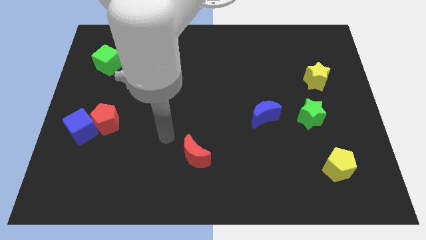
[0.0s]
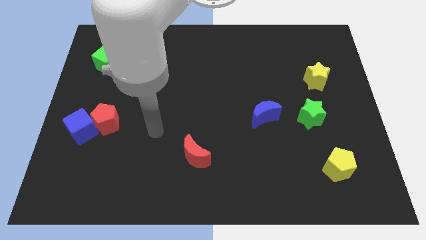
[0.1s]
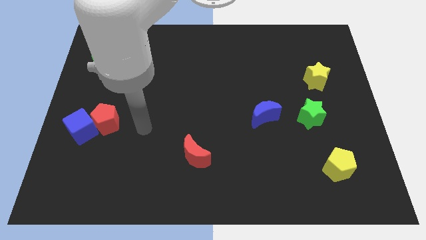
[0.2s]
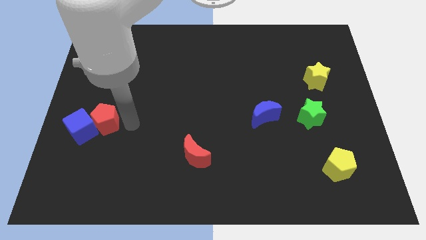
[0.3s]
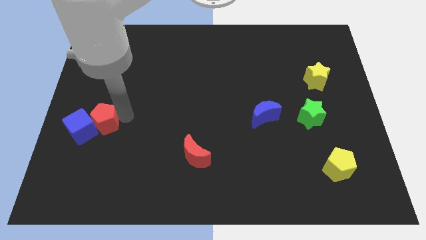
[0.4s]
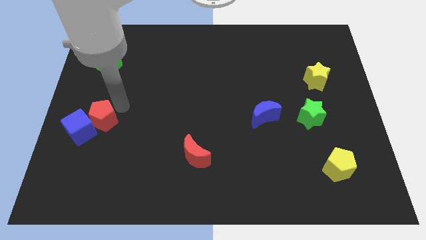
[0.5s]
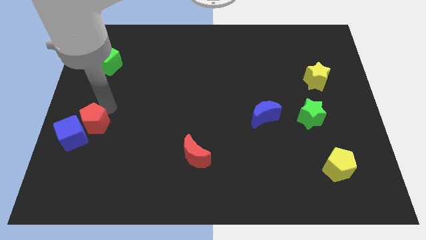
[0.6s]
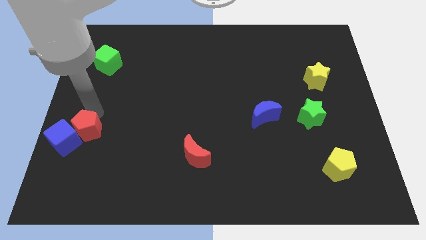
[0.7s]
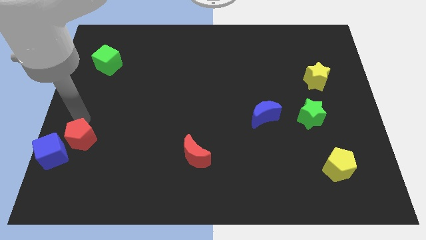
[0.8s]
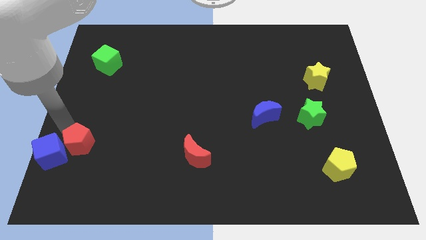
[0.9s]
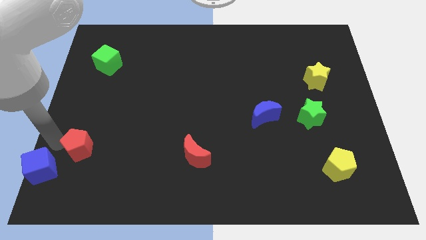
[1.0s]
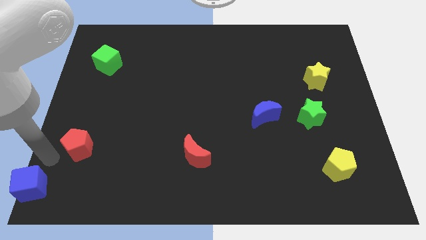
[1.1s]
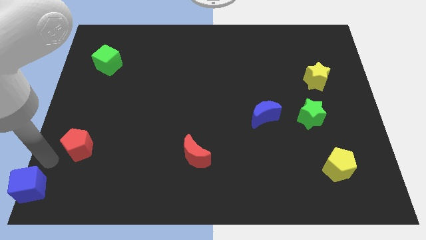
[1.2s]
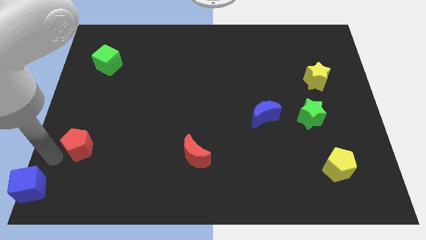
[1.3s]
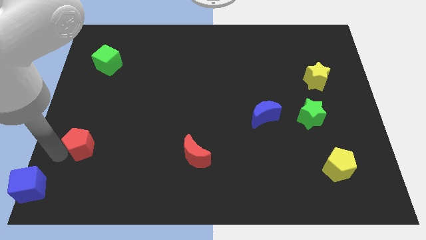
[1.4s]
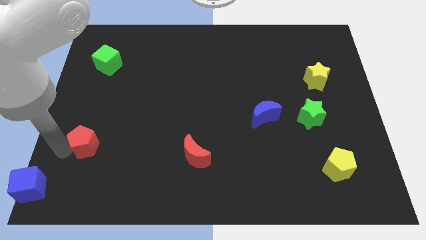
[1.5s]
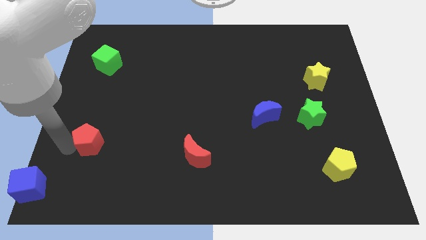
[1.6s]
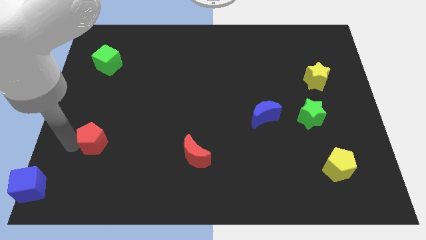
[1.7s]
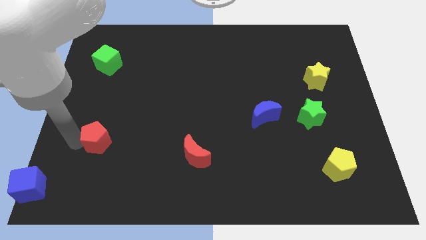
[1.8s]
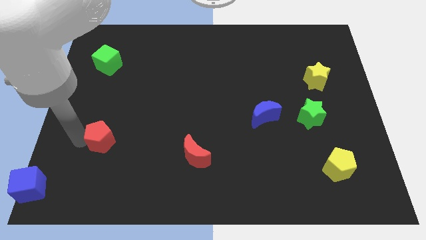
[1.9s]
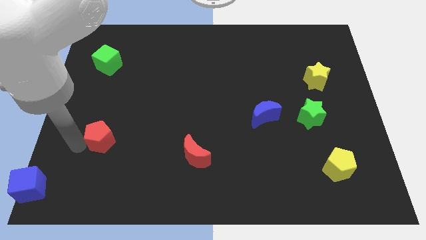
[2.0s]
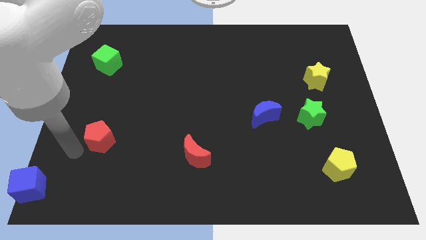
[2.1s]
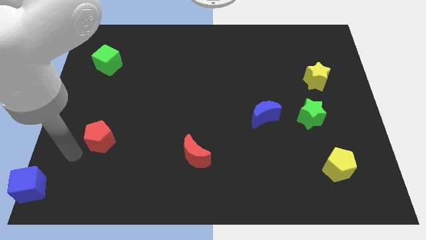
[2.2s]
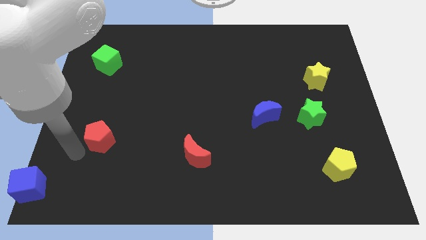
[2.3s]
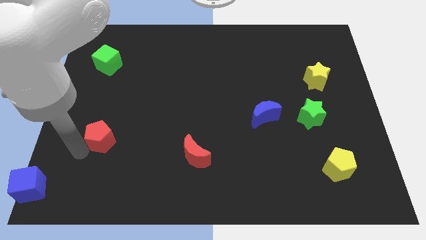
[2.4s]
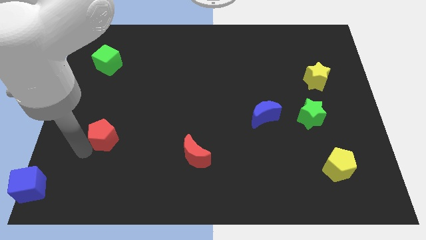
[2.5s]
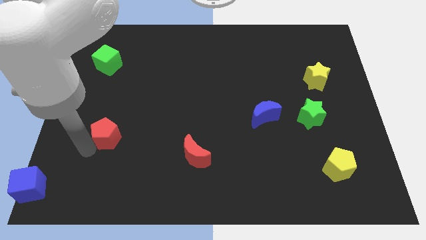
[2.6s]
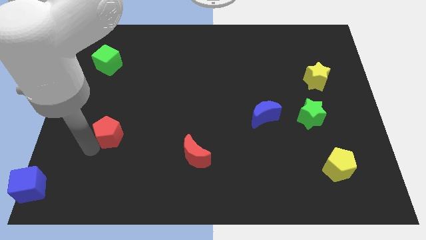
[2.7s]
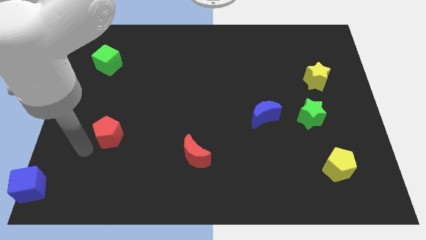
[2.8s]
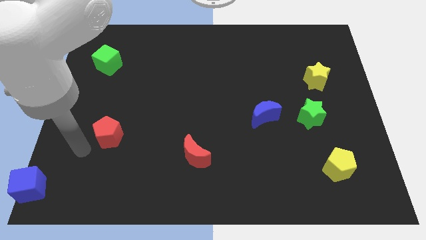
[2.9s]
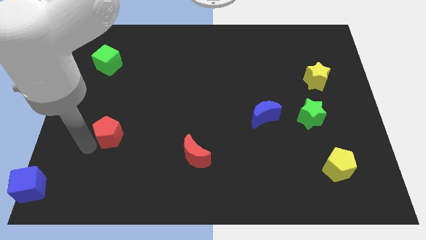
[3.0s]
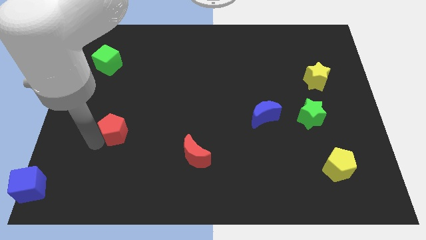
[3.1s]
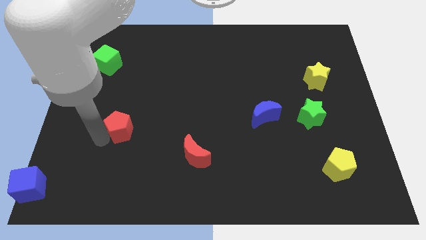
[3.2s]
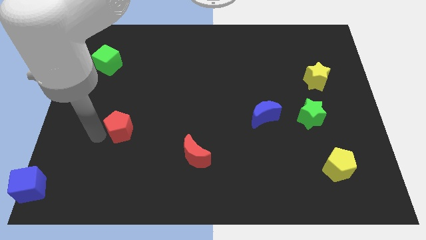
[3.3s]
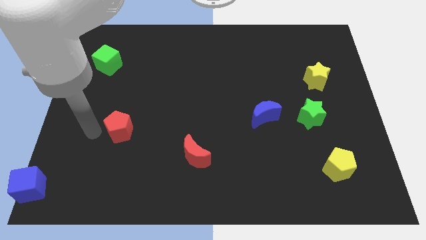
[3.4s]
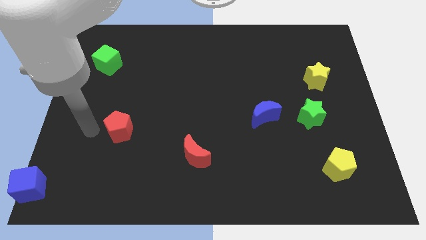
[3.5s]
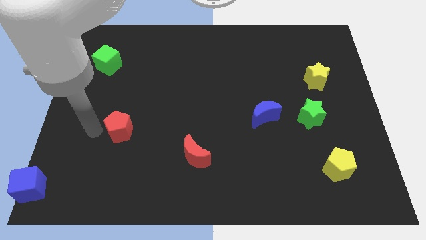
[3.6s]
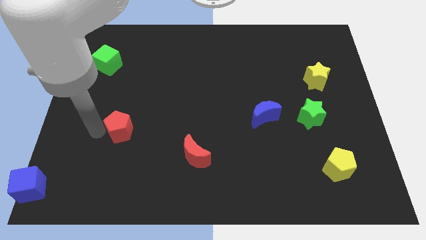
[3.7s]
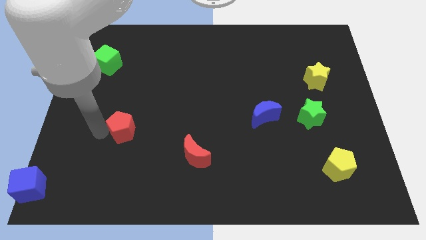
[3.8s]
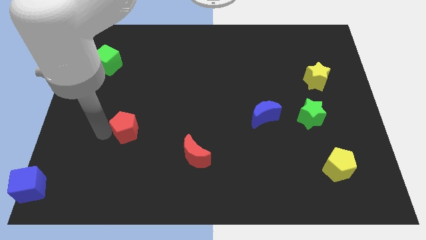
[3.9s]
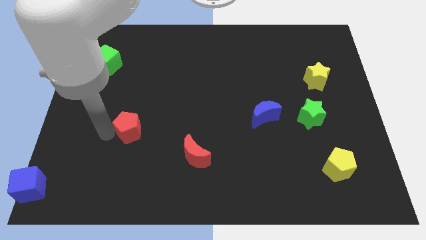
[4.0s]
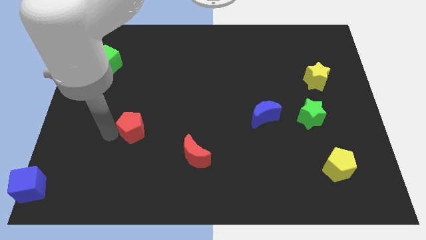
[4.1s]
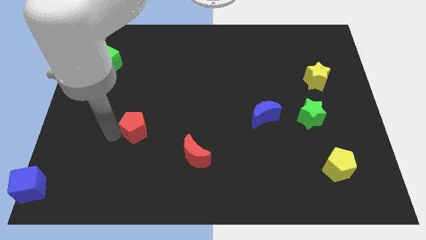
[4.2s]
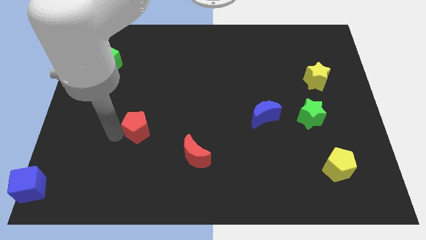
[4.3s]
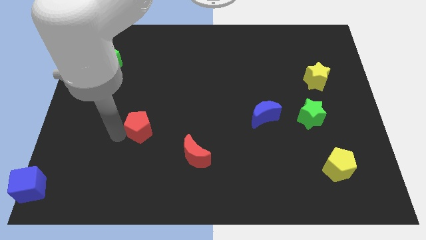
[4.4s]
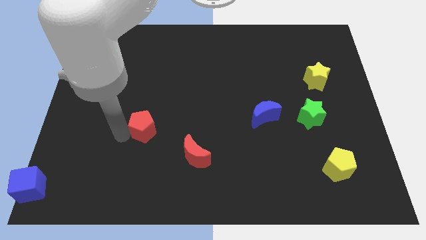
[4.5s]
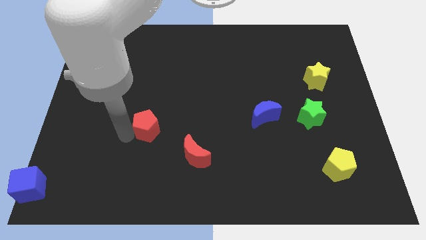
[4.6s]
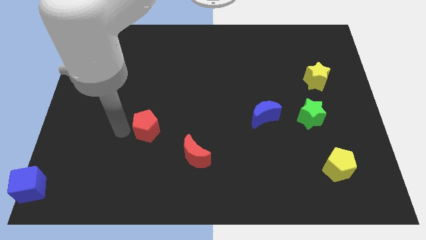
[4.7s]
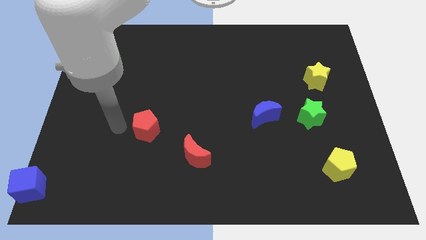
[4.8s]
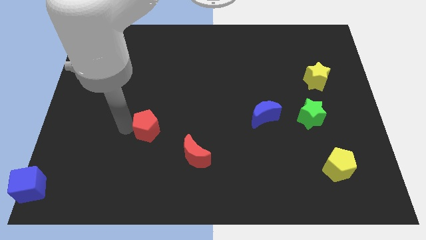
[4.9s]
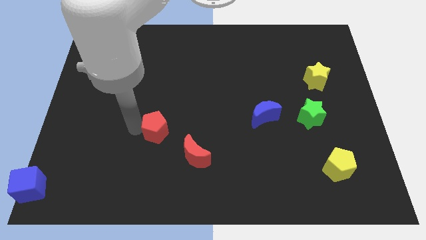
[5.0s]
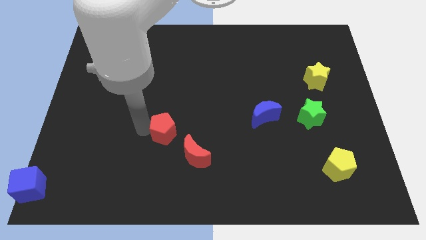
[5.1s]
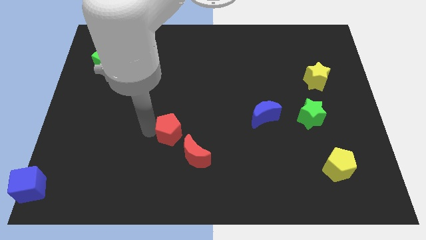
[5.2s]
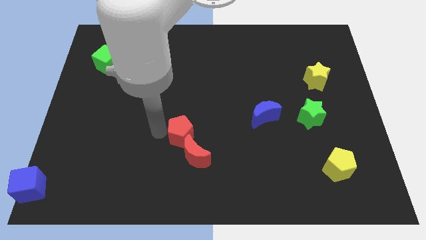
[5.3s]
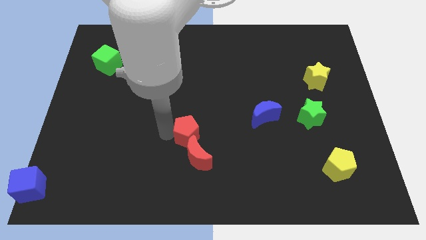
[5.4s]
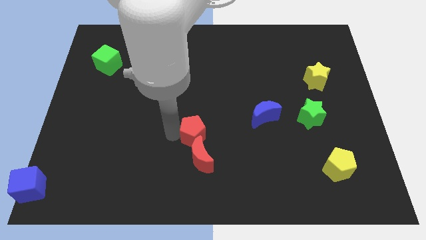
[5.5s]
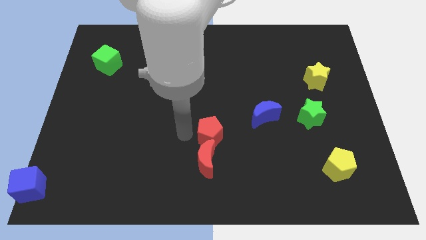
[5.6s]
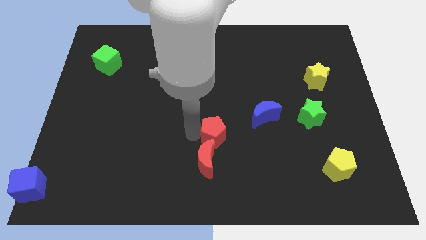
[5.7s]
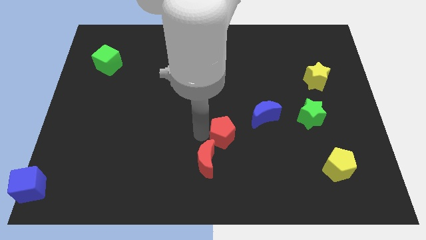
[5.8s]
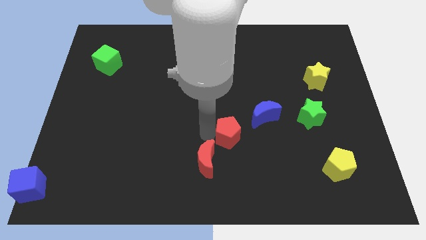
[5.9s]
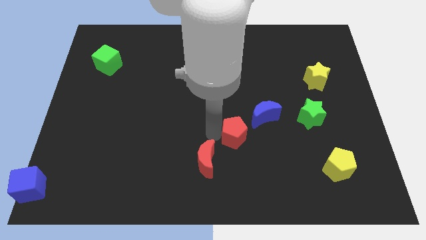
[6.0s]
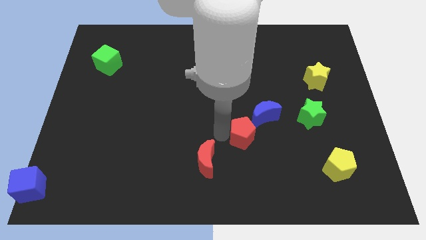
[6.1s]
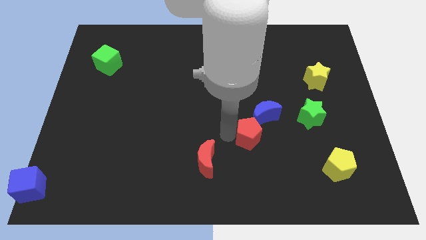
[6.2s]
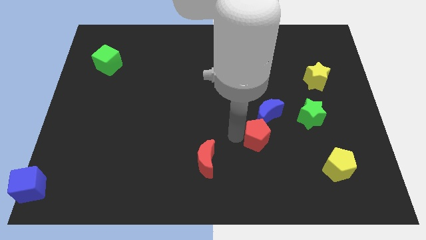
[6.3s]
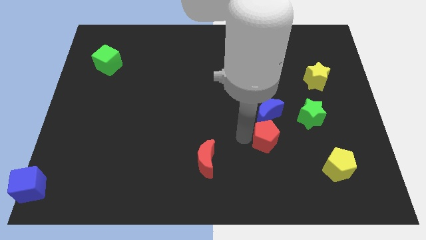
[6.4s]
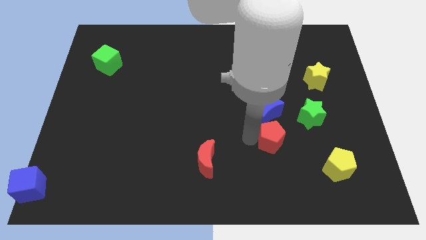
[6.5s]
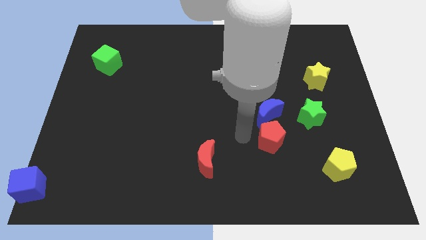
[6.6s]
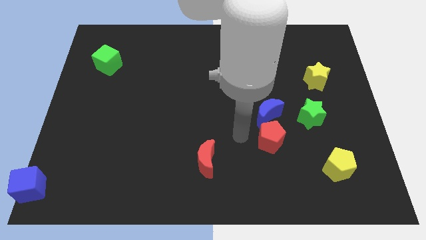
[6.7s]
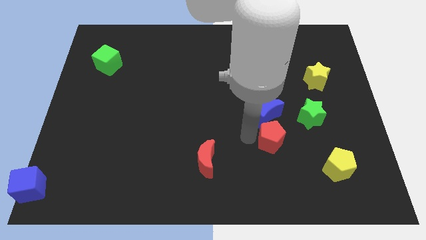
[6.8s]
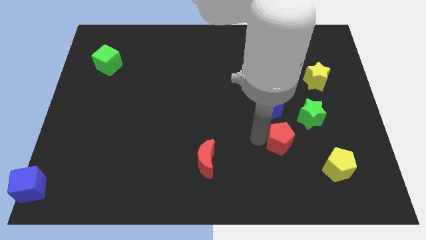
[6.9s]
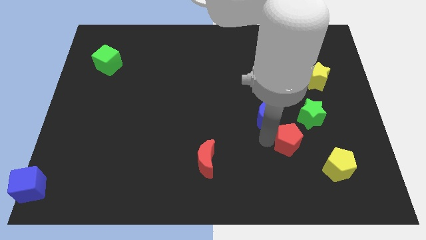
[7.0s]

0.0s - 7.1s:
put the red pentagon to the top left side of the yellow pentagon

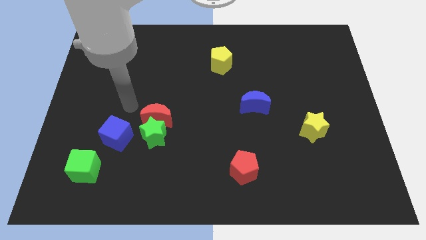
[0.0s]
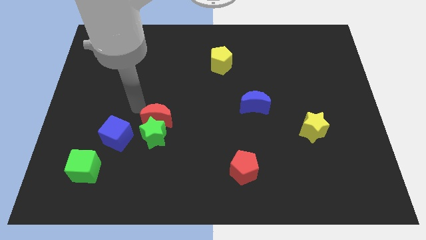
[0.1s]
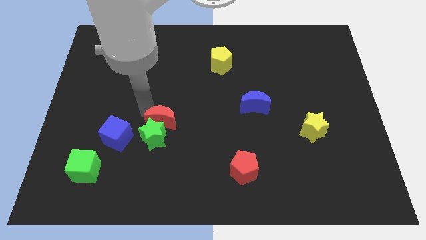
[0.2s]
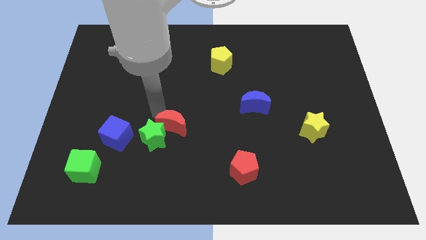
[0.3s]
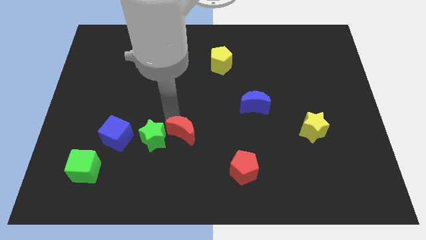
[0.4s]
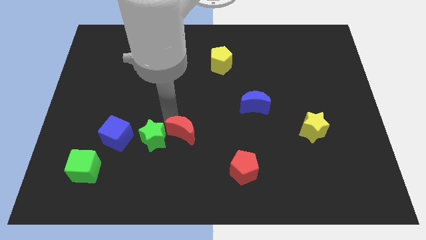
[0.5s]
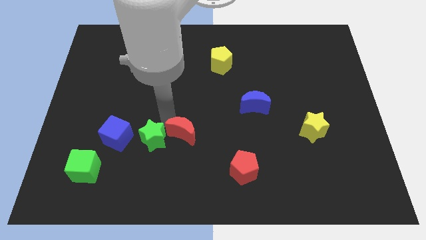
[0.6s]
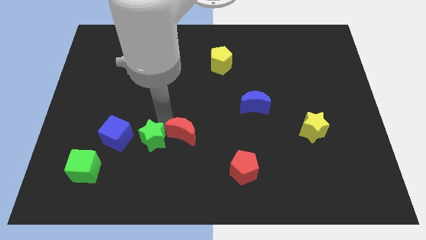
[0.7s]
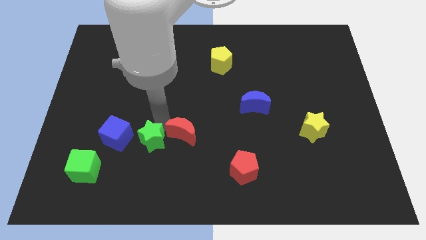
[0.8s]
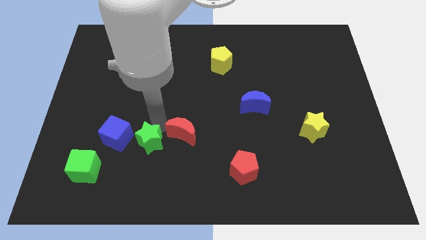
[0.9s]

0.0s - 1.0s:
slide the green star diagonally down and to the right of the blue cube
